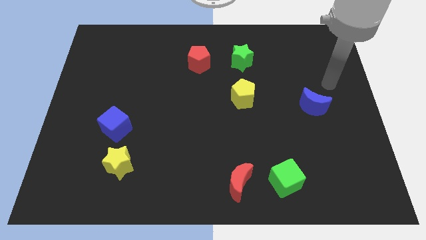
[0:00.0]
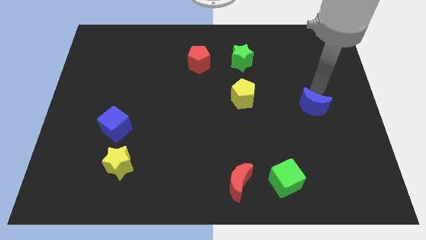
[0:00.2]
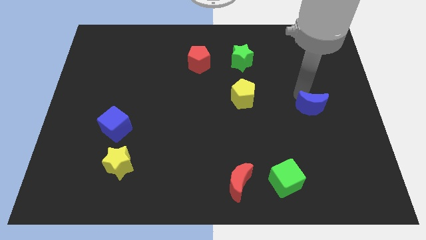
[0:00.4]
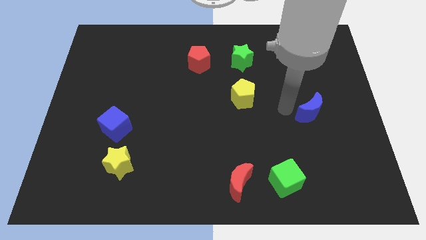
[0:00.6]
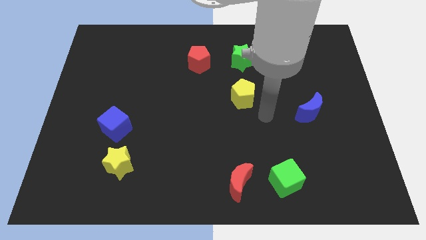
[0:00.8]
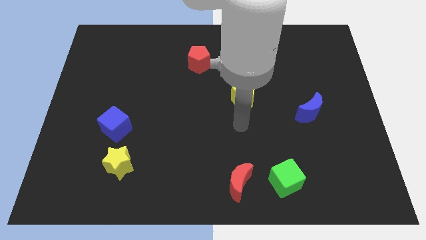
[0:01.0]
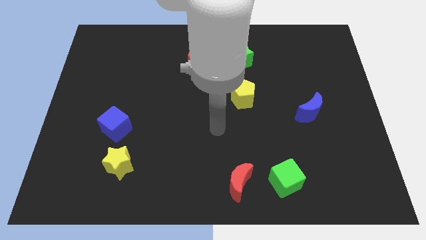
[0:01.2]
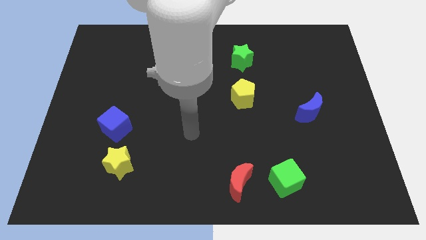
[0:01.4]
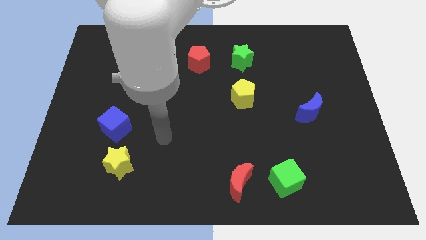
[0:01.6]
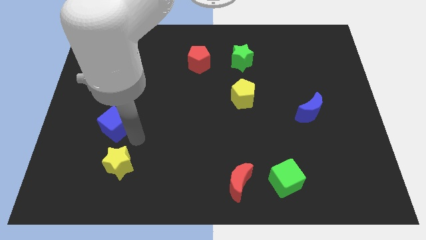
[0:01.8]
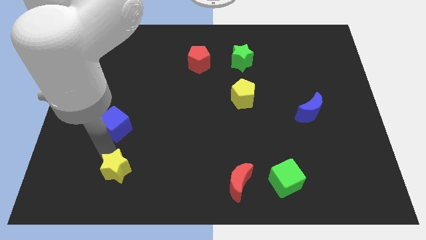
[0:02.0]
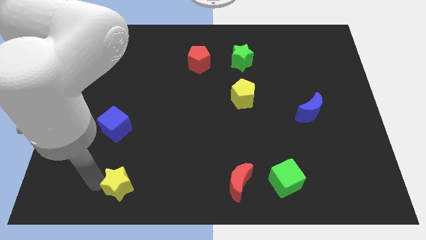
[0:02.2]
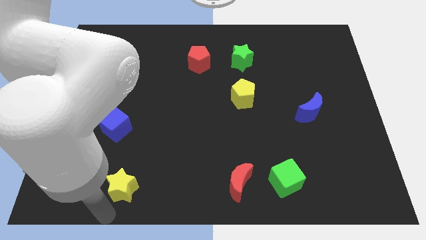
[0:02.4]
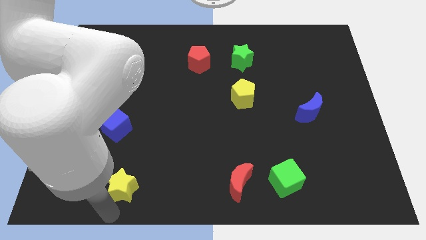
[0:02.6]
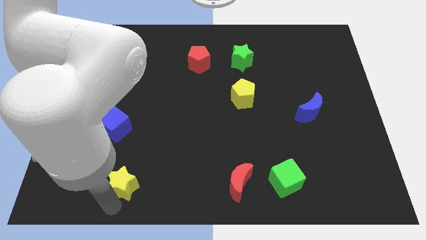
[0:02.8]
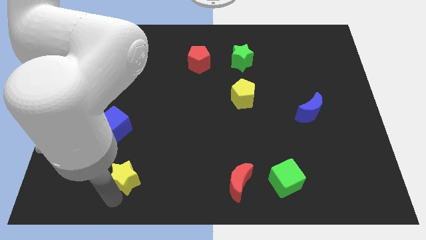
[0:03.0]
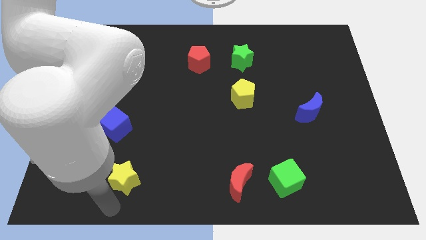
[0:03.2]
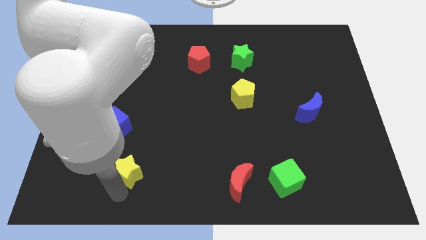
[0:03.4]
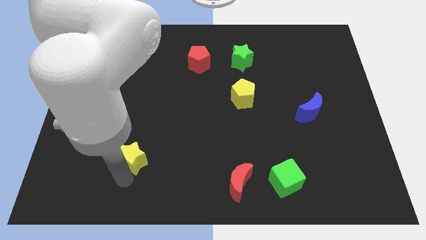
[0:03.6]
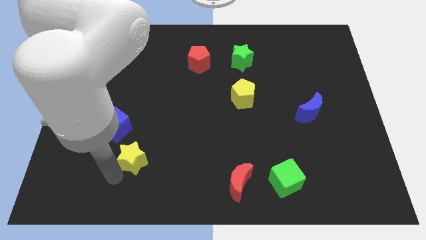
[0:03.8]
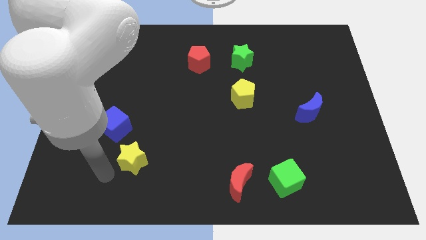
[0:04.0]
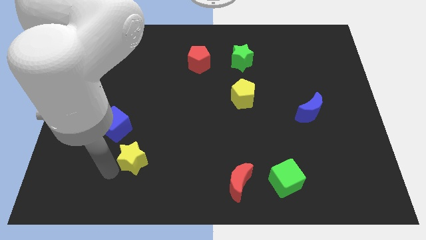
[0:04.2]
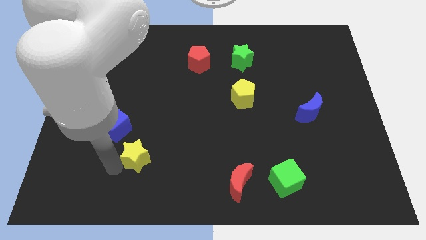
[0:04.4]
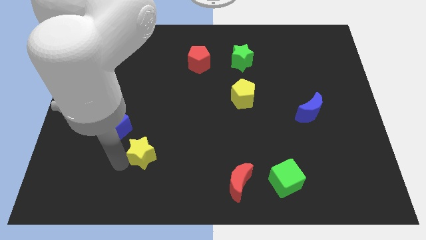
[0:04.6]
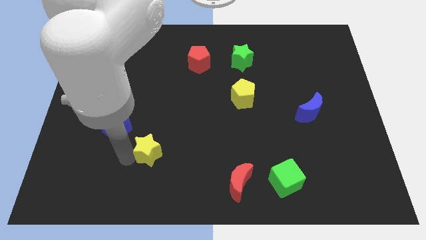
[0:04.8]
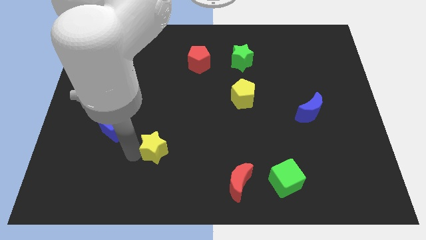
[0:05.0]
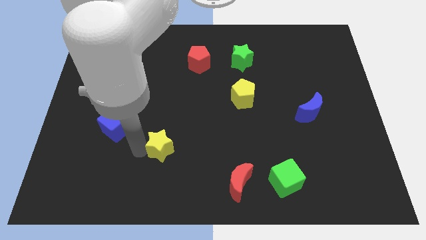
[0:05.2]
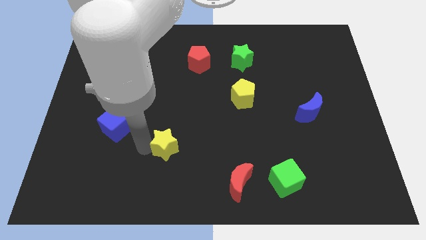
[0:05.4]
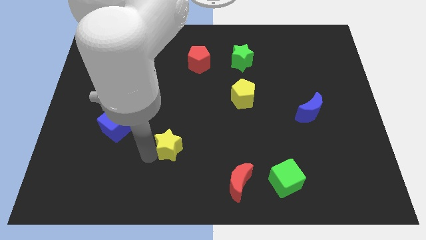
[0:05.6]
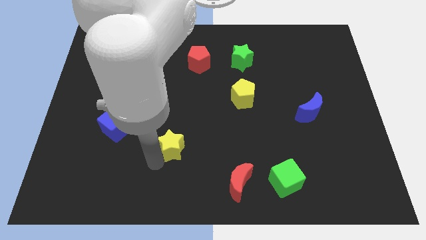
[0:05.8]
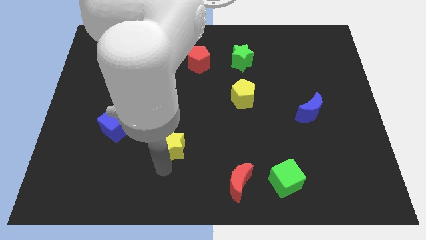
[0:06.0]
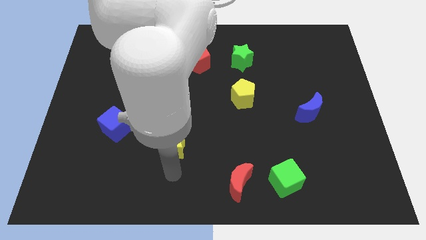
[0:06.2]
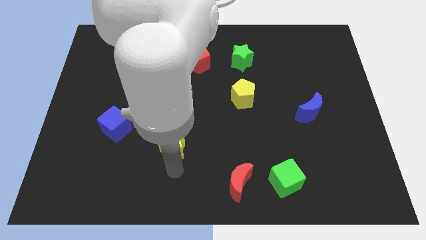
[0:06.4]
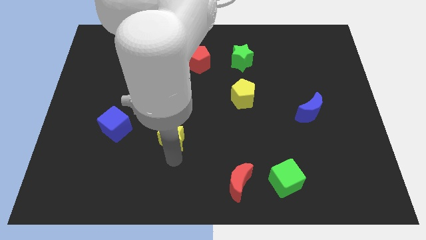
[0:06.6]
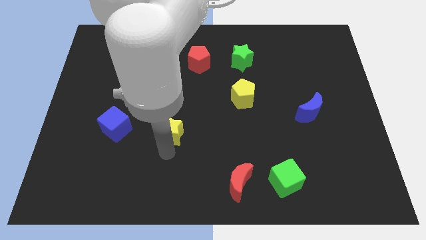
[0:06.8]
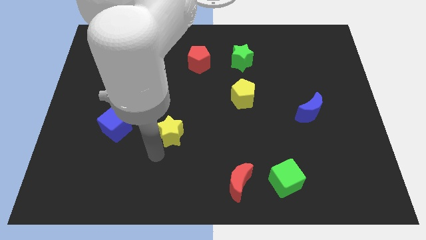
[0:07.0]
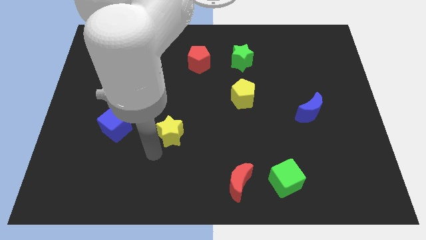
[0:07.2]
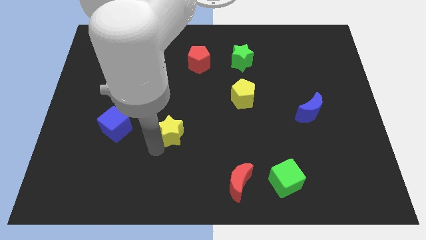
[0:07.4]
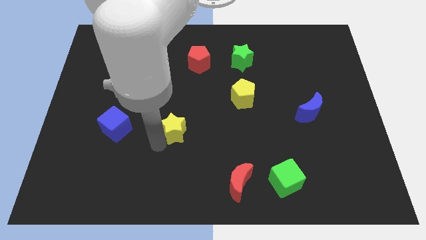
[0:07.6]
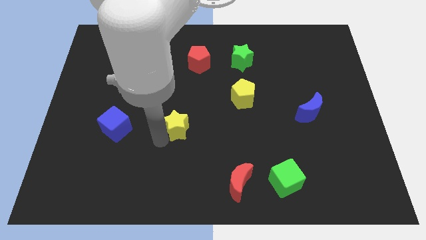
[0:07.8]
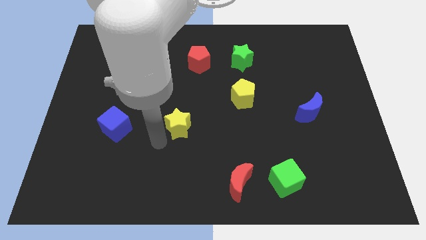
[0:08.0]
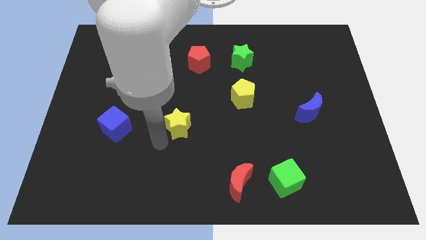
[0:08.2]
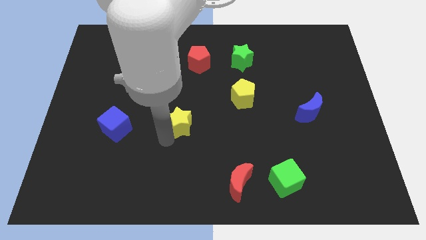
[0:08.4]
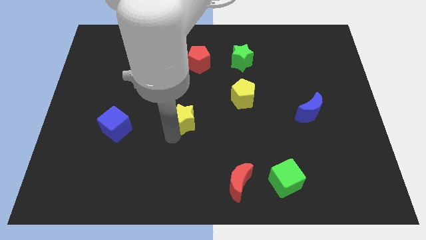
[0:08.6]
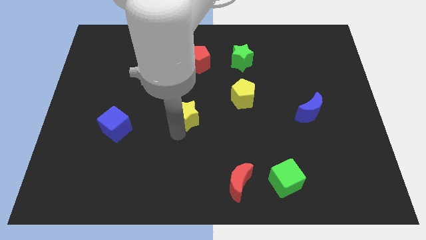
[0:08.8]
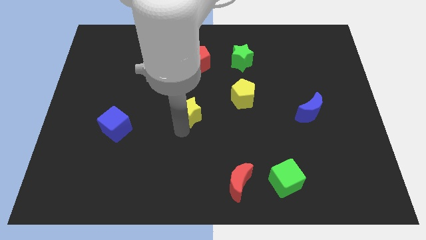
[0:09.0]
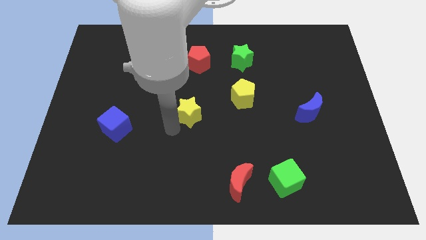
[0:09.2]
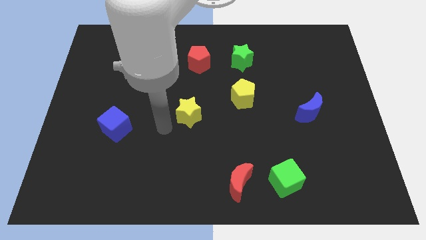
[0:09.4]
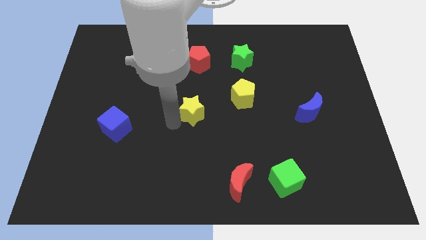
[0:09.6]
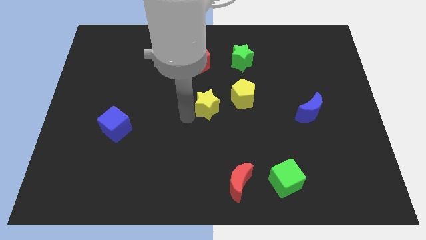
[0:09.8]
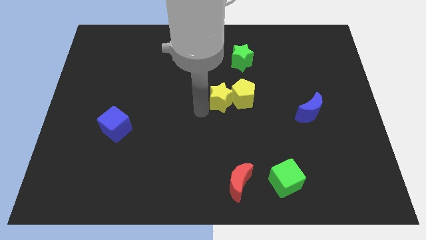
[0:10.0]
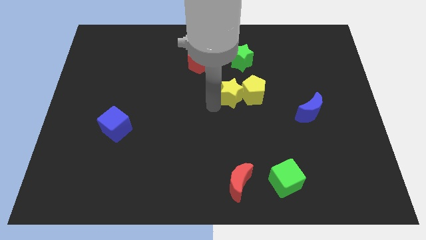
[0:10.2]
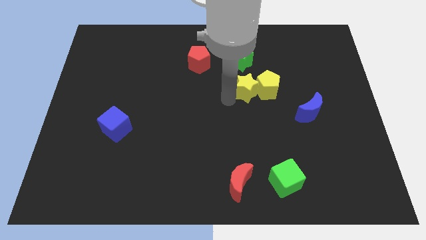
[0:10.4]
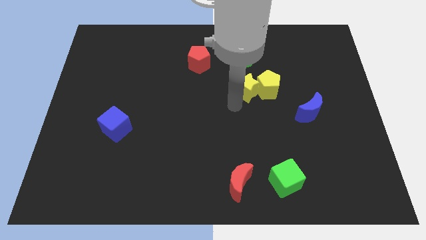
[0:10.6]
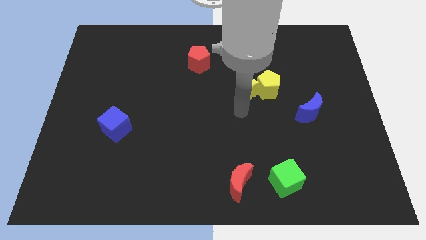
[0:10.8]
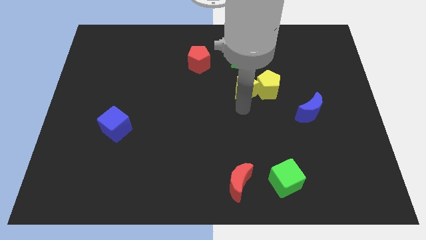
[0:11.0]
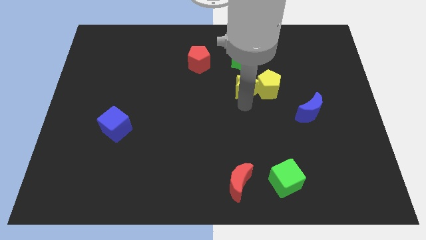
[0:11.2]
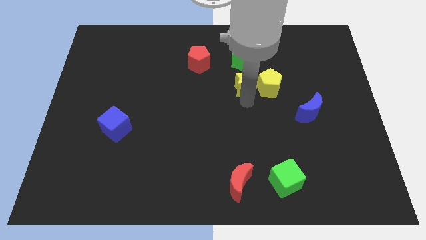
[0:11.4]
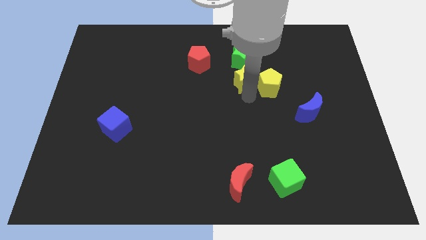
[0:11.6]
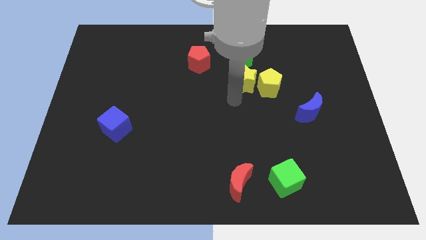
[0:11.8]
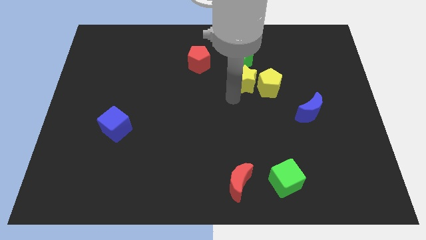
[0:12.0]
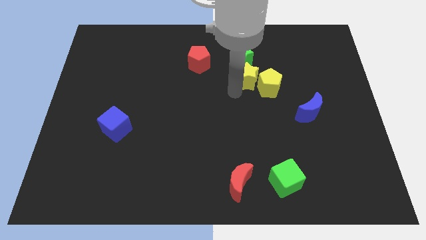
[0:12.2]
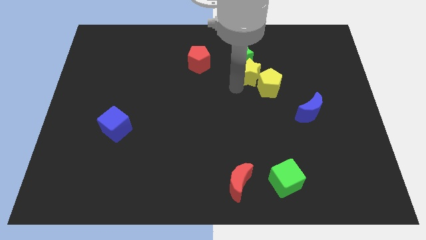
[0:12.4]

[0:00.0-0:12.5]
put the yellow star just right of the red pentagon

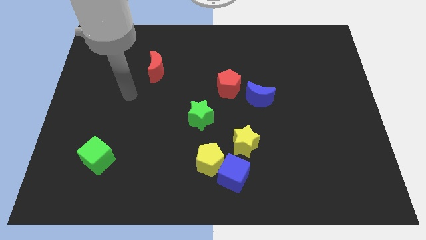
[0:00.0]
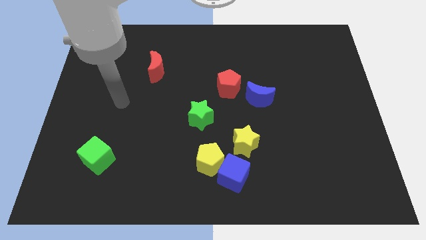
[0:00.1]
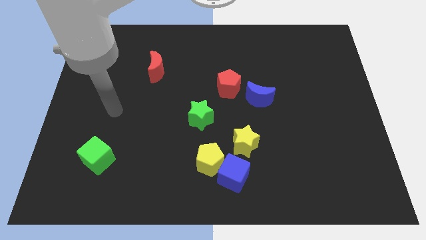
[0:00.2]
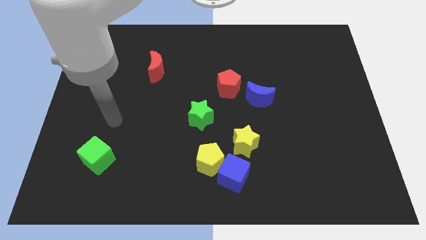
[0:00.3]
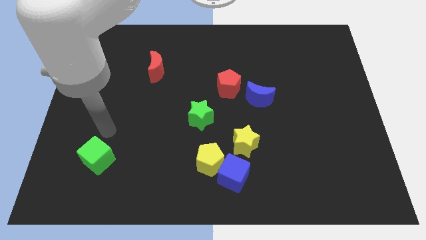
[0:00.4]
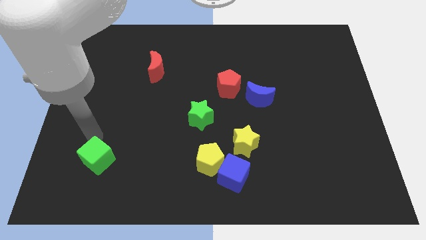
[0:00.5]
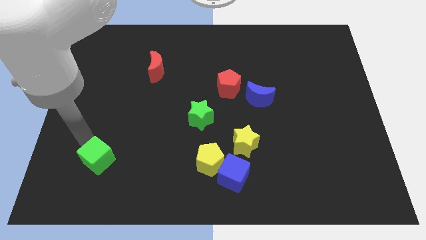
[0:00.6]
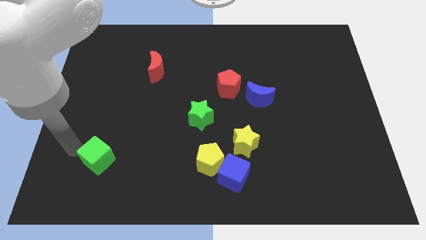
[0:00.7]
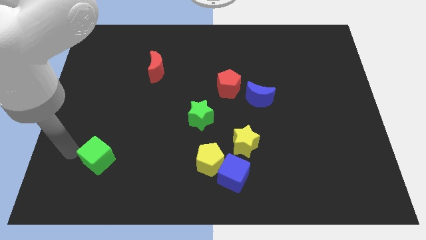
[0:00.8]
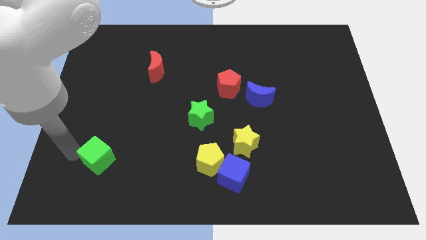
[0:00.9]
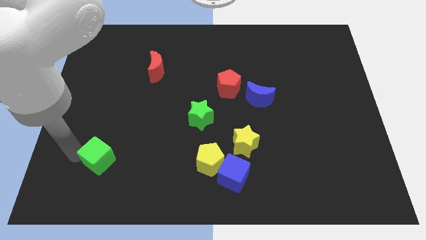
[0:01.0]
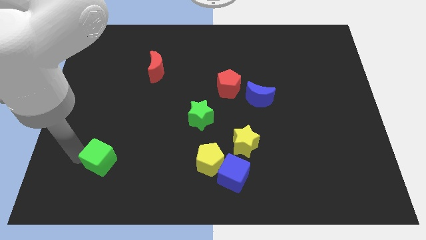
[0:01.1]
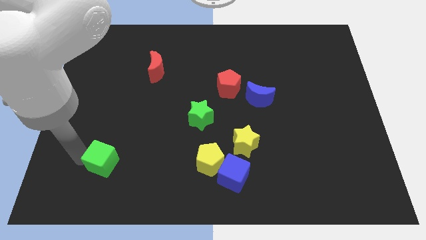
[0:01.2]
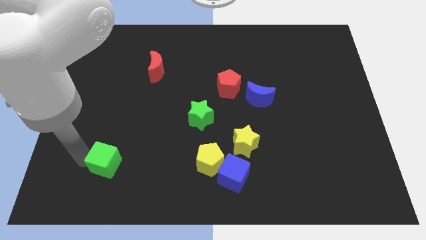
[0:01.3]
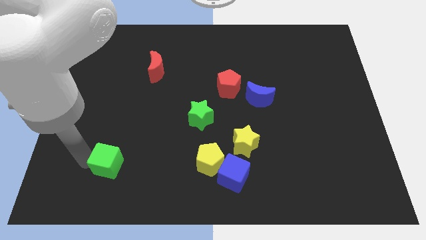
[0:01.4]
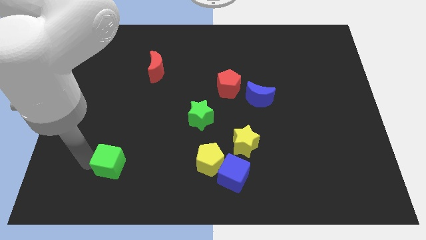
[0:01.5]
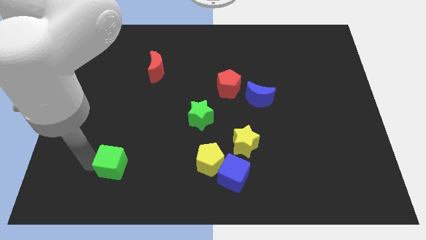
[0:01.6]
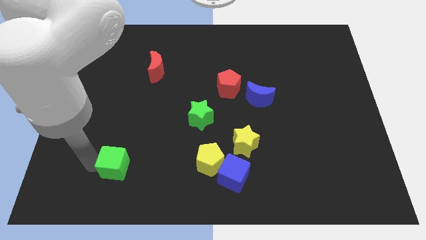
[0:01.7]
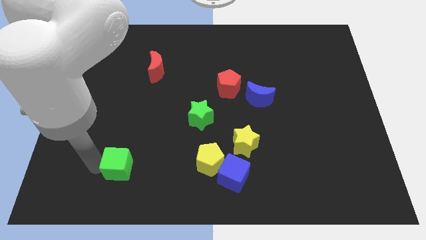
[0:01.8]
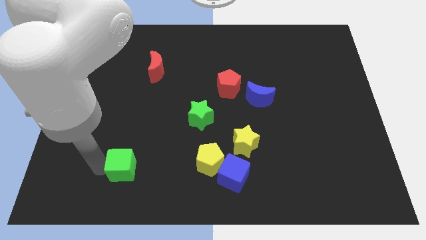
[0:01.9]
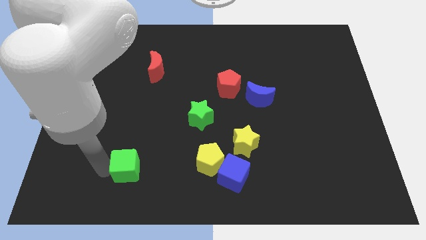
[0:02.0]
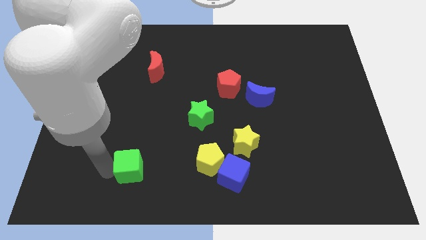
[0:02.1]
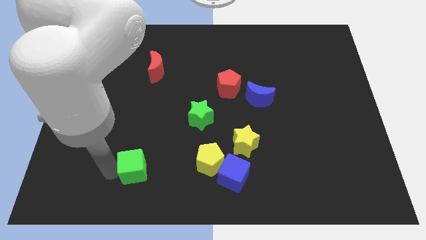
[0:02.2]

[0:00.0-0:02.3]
slide the green cube left of the yellow pentagon
